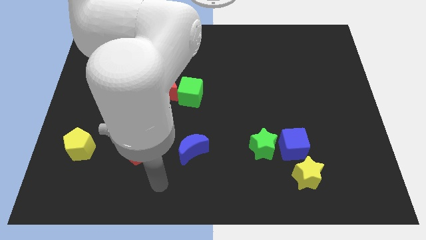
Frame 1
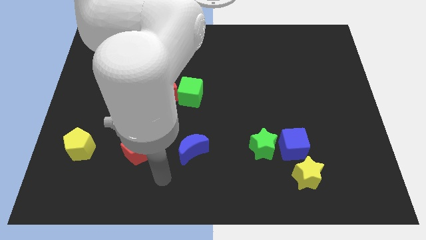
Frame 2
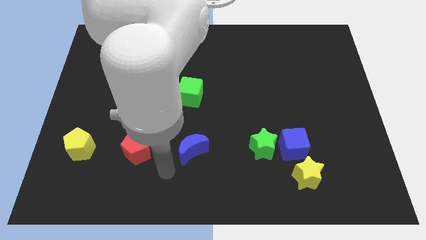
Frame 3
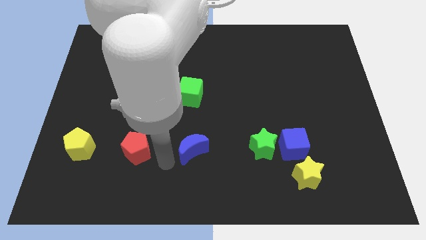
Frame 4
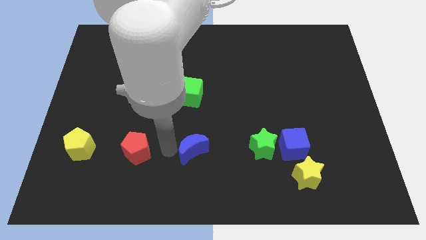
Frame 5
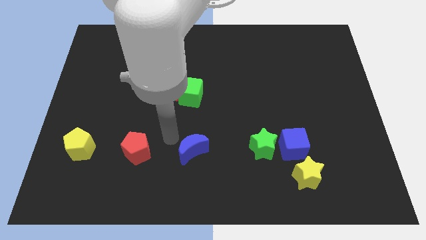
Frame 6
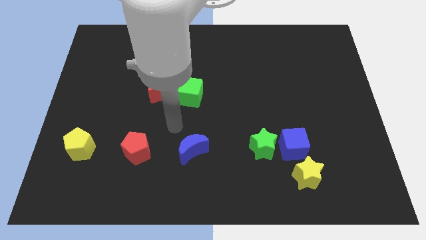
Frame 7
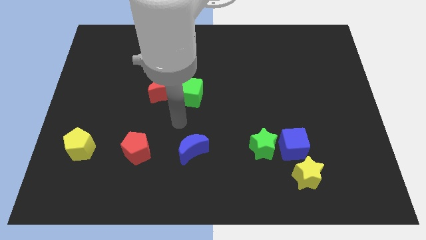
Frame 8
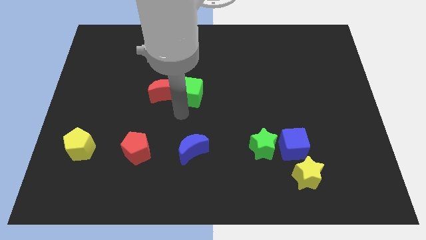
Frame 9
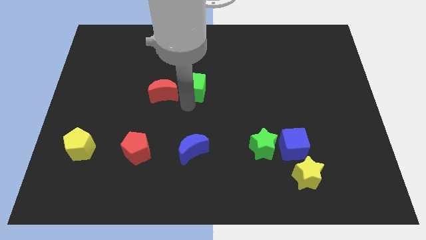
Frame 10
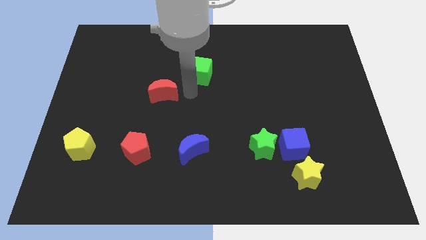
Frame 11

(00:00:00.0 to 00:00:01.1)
pull the red moon apart from the green cube

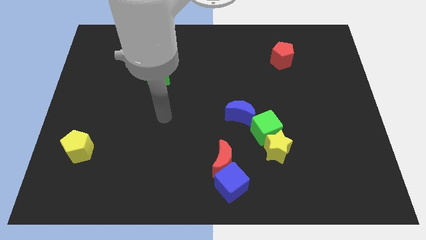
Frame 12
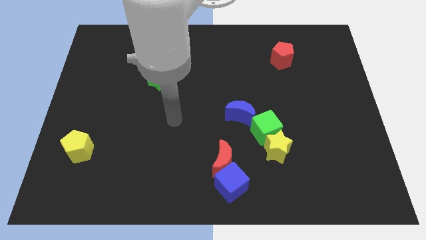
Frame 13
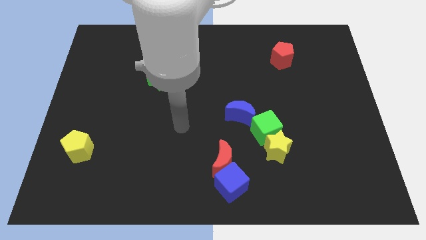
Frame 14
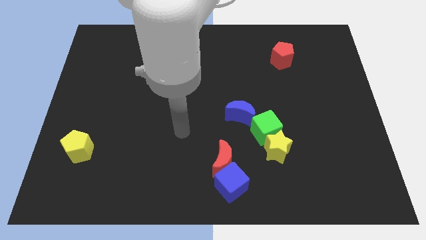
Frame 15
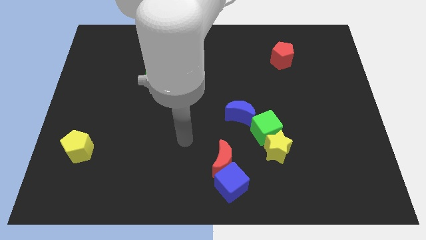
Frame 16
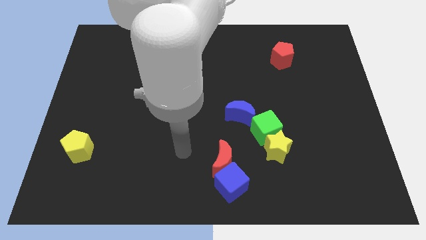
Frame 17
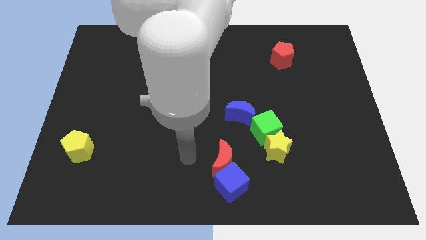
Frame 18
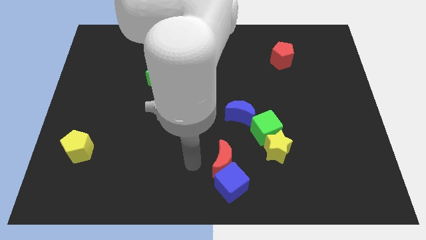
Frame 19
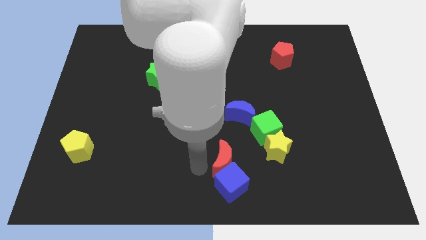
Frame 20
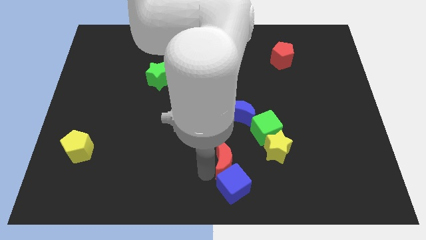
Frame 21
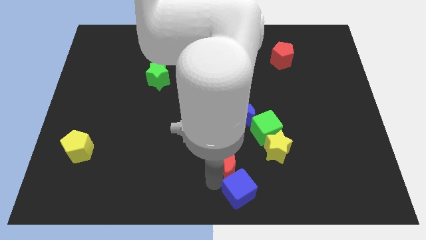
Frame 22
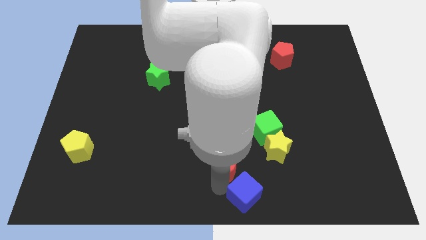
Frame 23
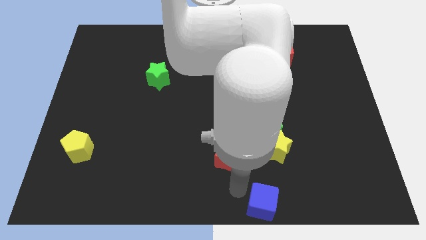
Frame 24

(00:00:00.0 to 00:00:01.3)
pull the red moon apart from the blue cube

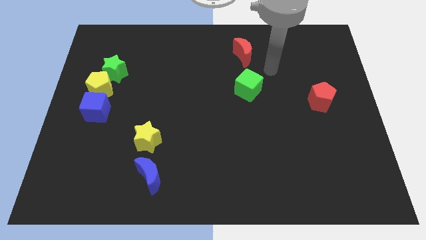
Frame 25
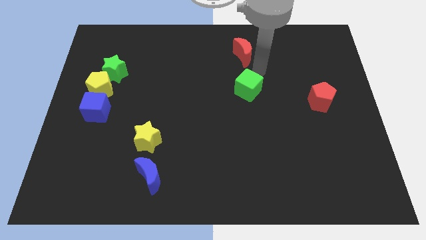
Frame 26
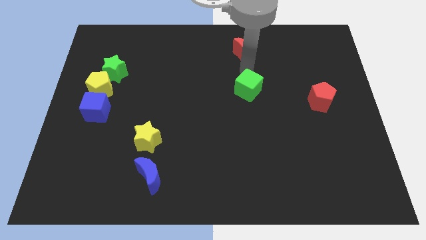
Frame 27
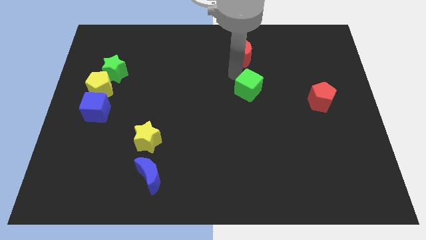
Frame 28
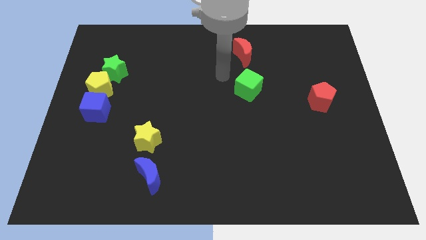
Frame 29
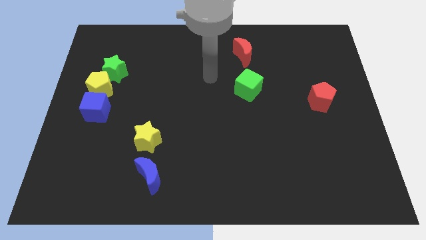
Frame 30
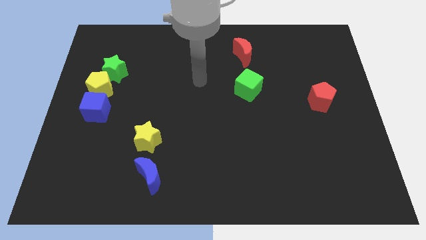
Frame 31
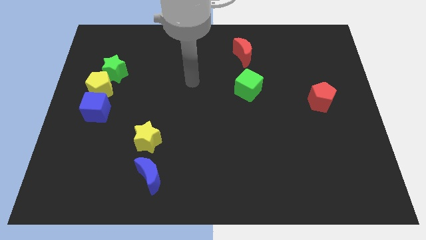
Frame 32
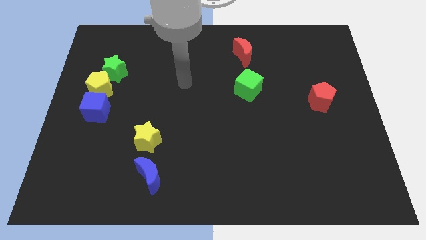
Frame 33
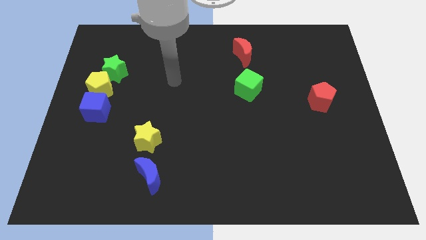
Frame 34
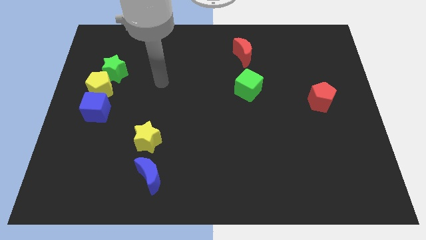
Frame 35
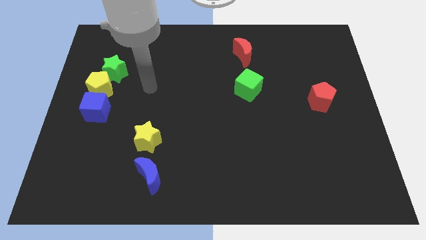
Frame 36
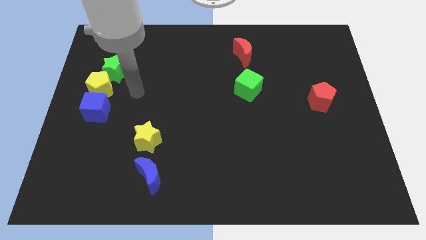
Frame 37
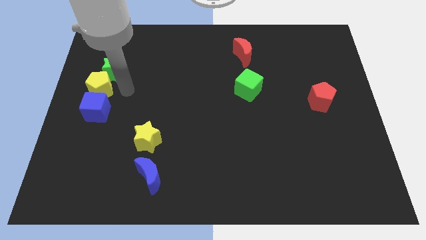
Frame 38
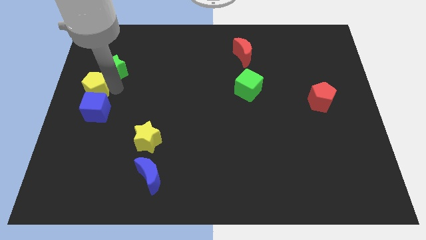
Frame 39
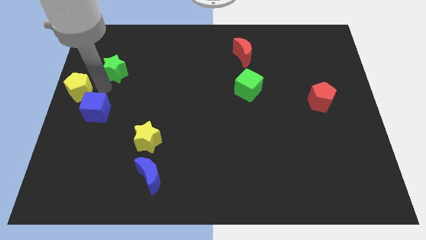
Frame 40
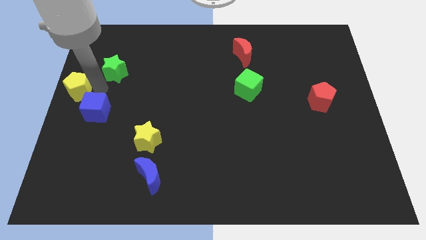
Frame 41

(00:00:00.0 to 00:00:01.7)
pull the green star apart from the yellow pentagon

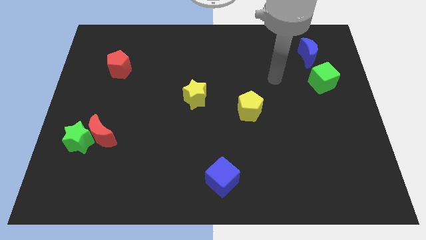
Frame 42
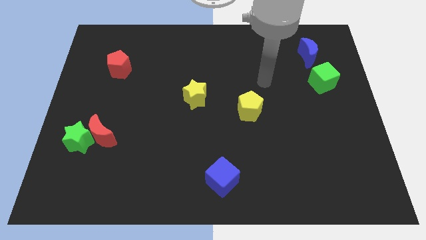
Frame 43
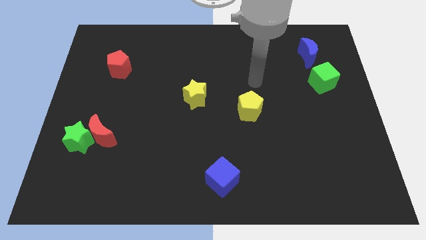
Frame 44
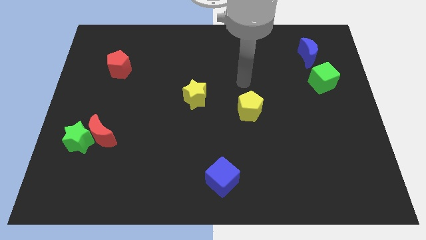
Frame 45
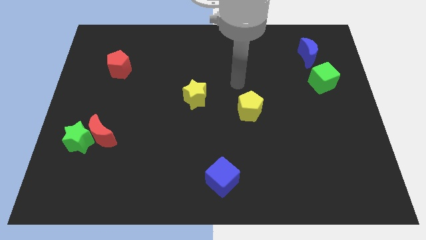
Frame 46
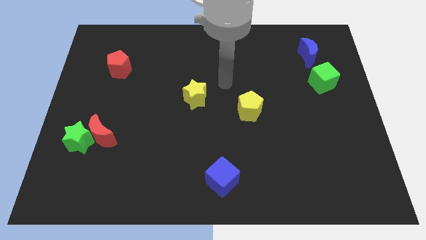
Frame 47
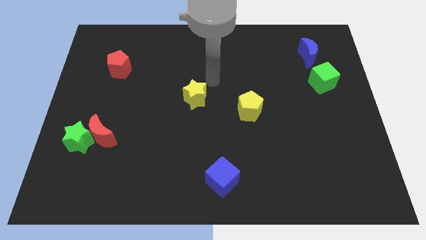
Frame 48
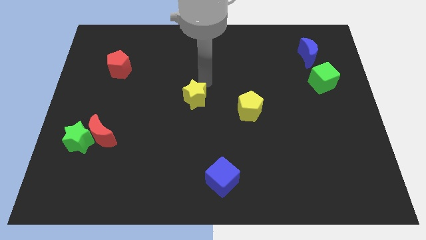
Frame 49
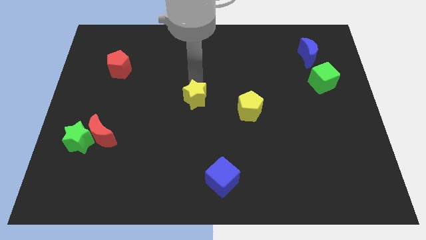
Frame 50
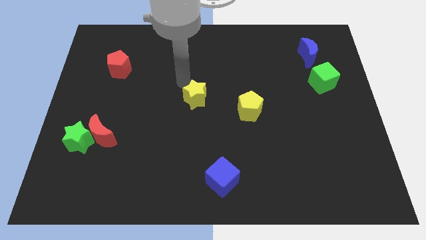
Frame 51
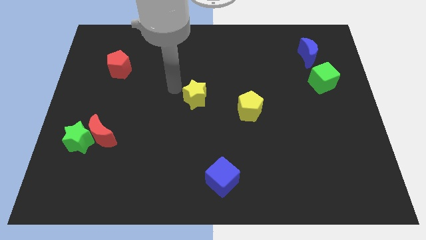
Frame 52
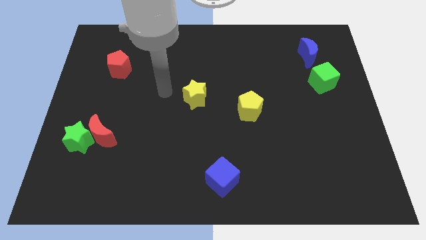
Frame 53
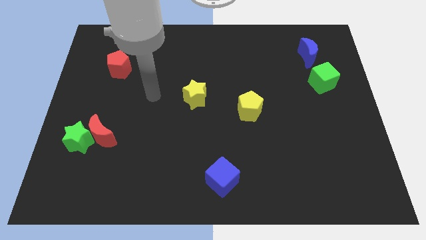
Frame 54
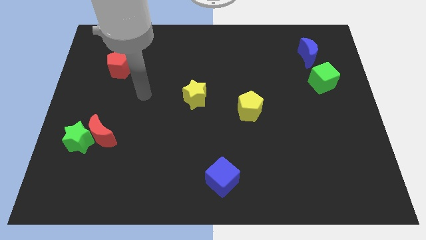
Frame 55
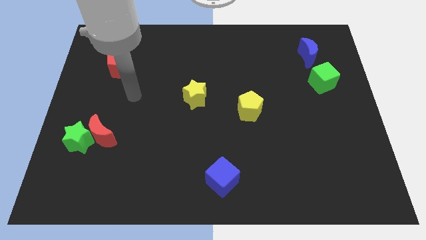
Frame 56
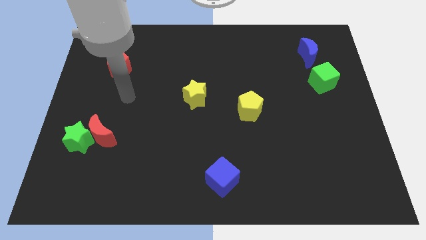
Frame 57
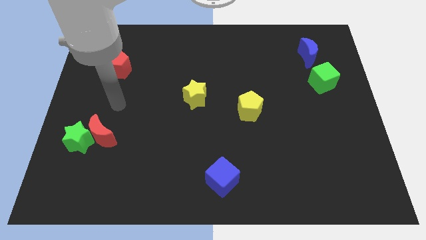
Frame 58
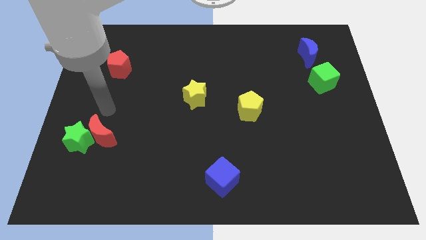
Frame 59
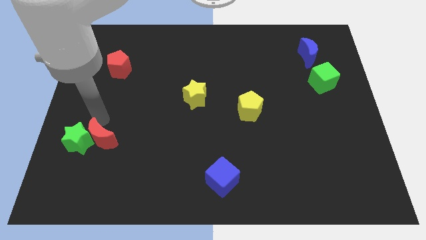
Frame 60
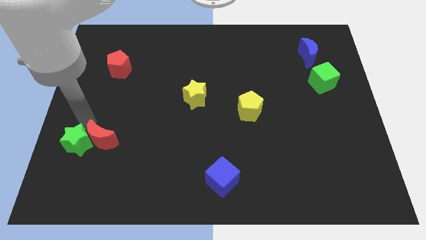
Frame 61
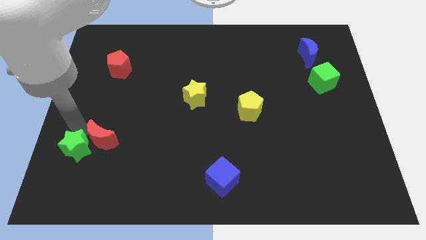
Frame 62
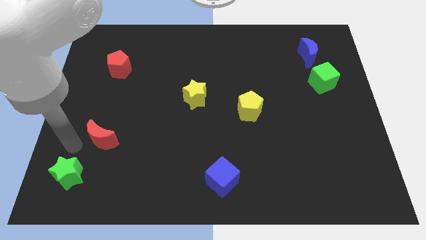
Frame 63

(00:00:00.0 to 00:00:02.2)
pull the red moon apart from the green star

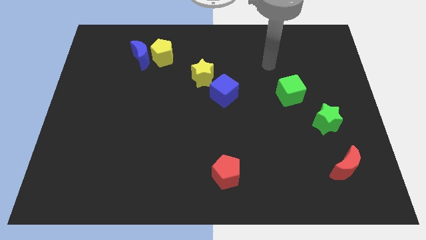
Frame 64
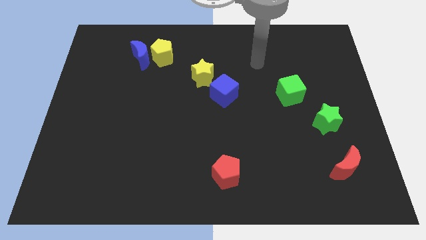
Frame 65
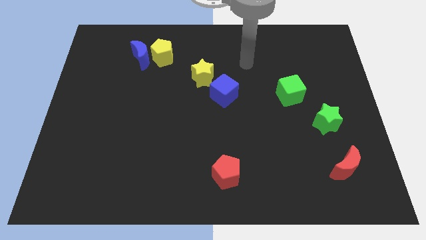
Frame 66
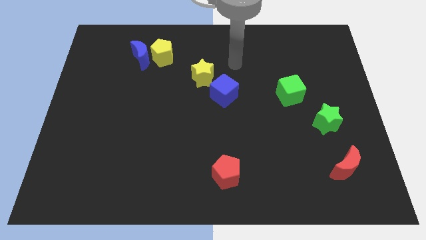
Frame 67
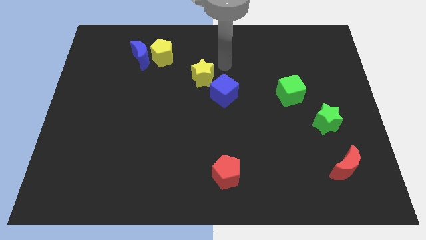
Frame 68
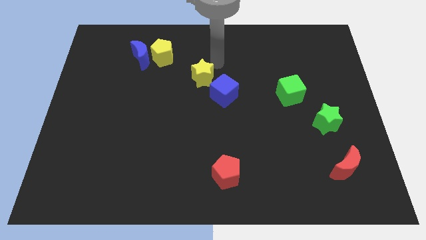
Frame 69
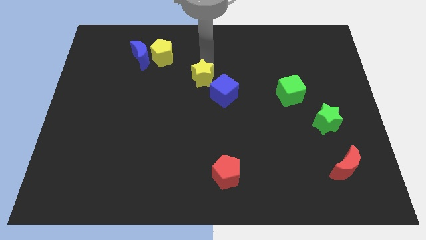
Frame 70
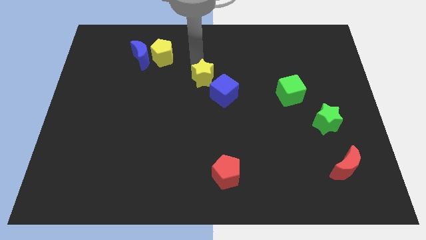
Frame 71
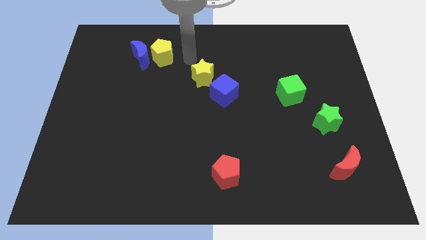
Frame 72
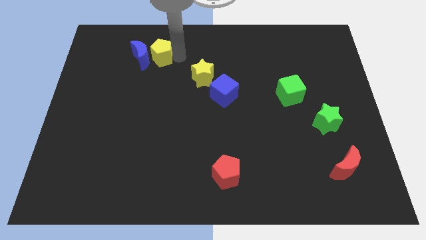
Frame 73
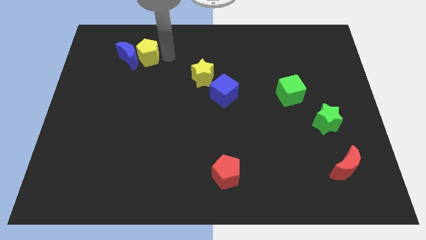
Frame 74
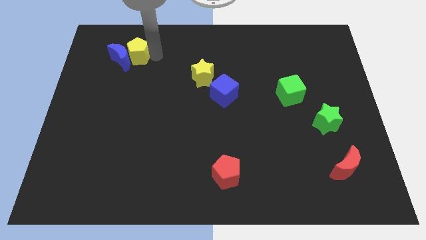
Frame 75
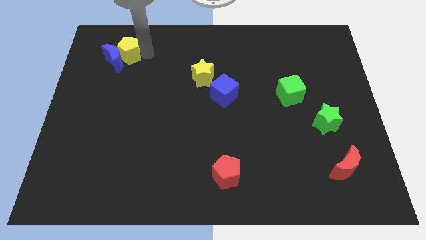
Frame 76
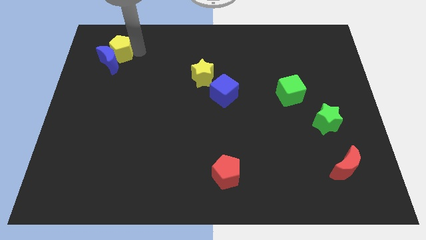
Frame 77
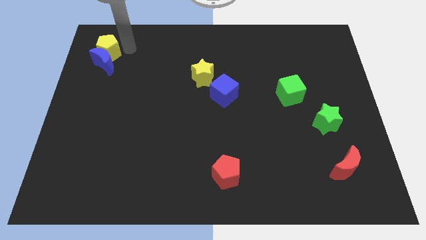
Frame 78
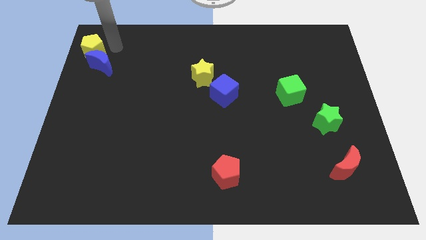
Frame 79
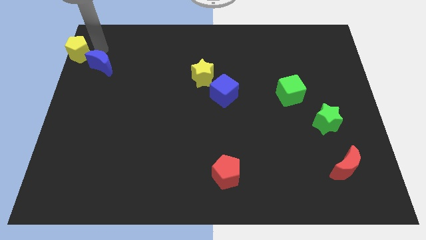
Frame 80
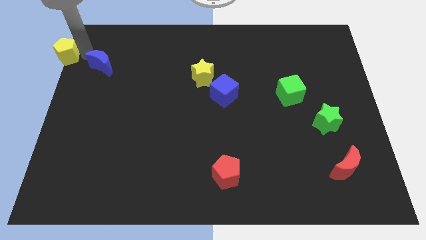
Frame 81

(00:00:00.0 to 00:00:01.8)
separate the blue moon from the yellow pentagon

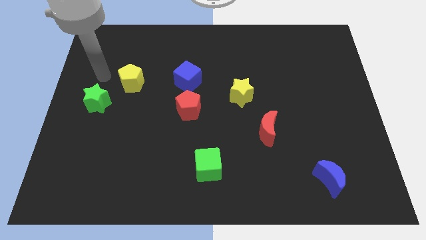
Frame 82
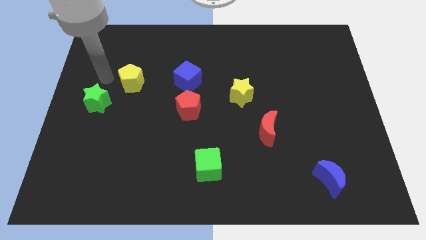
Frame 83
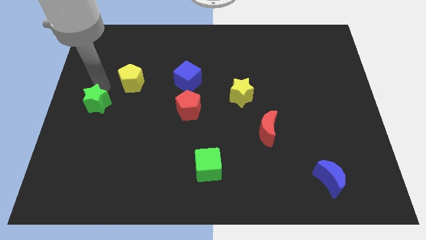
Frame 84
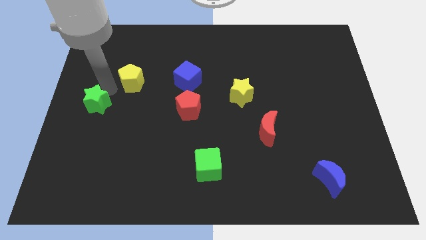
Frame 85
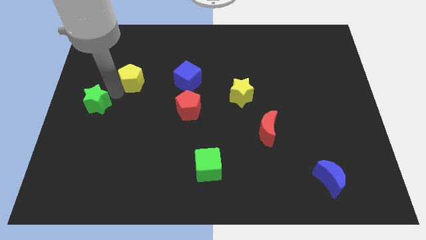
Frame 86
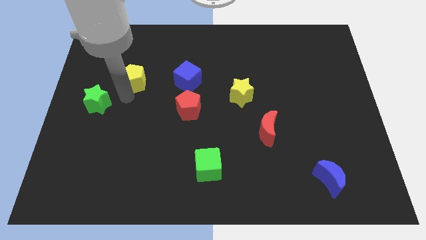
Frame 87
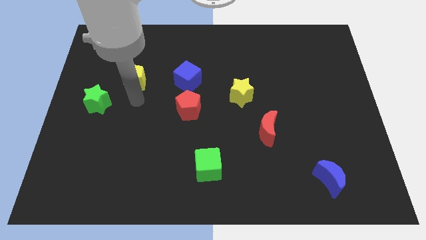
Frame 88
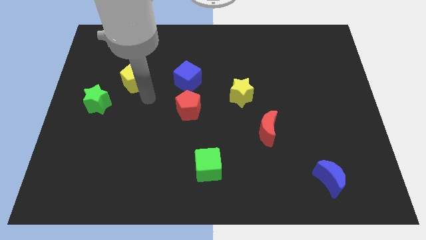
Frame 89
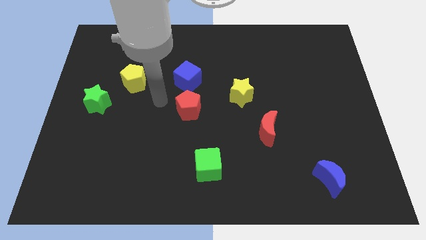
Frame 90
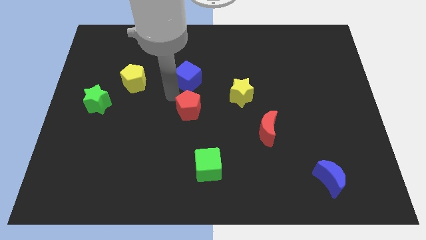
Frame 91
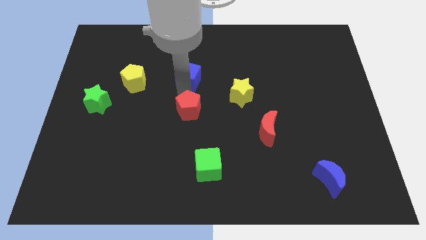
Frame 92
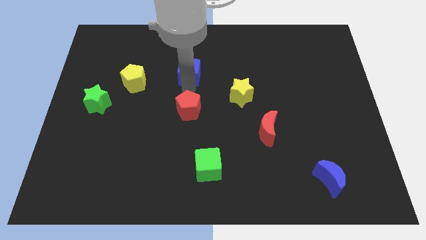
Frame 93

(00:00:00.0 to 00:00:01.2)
separate the red pentagon from the blue cube
